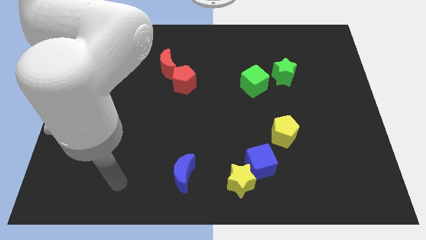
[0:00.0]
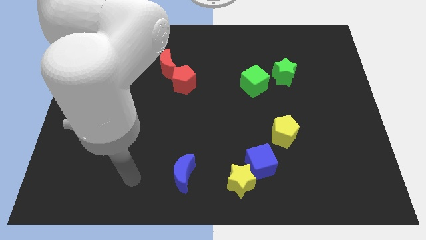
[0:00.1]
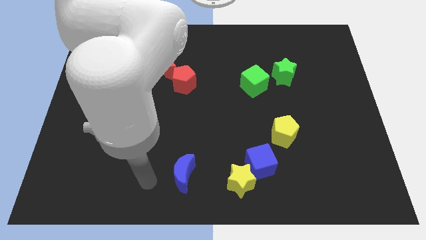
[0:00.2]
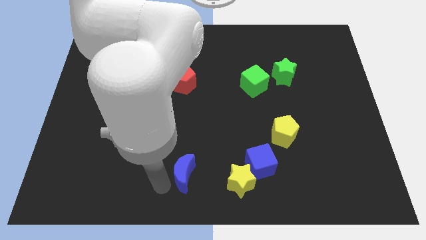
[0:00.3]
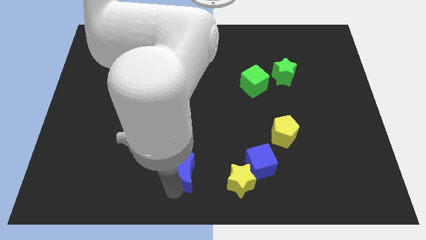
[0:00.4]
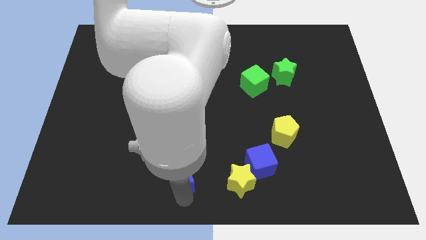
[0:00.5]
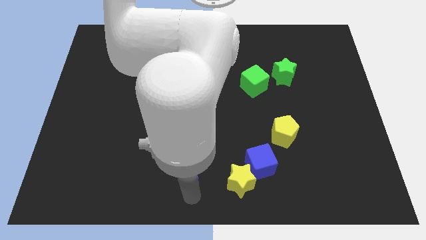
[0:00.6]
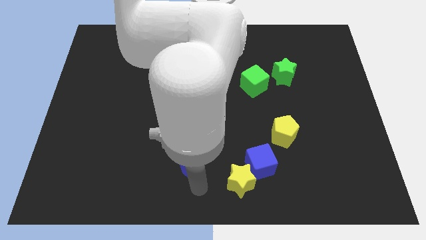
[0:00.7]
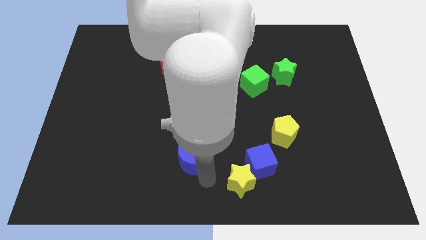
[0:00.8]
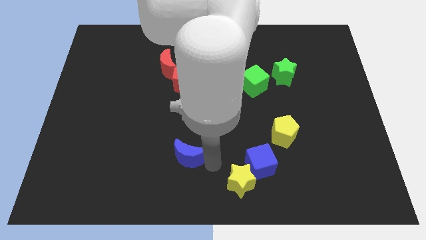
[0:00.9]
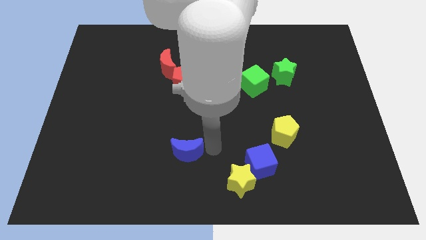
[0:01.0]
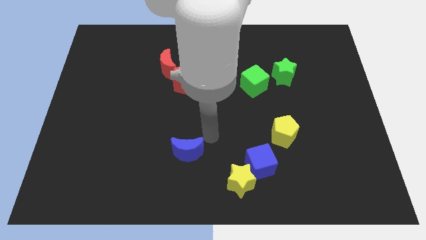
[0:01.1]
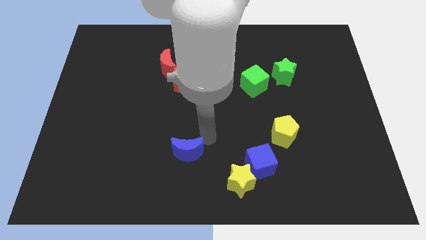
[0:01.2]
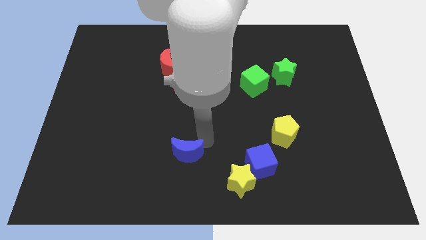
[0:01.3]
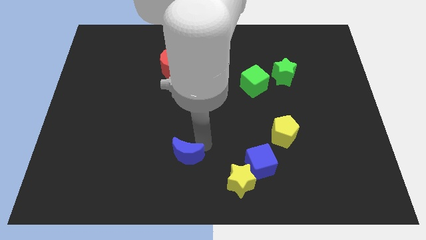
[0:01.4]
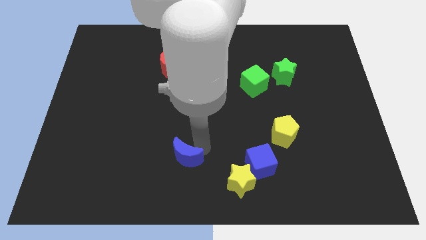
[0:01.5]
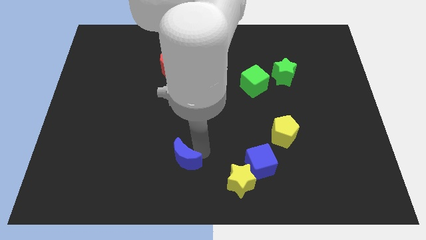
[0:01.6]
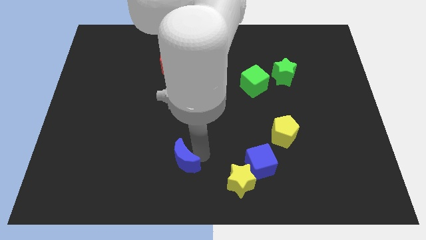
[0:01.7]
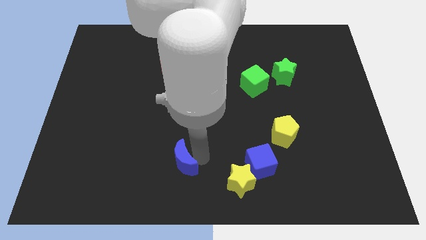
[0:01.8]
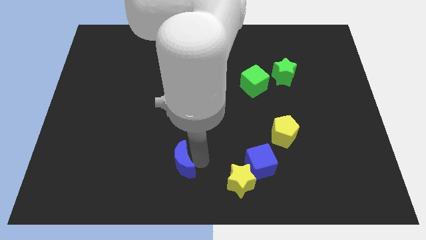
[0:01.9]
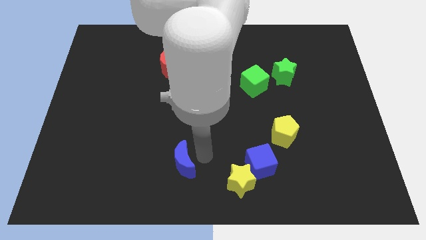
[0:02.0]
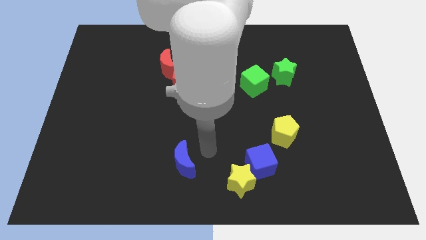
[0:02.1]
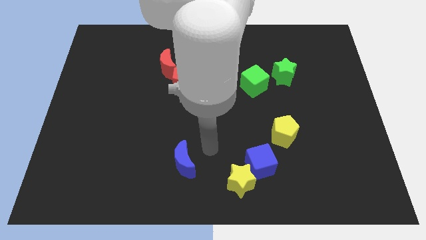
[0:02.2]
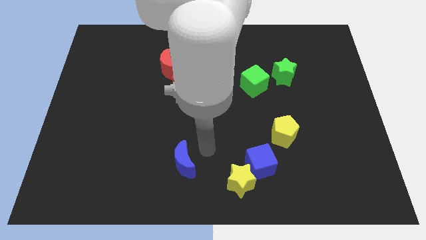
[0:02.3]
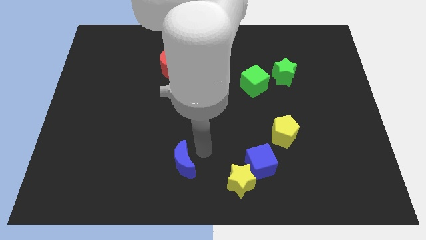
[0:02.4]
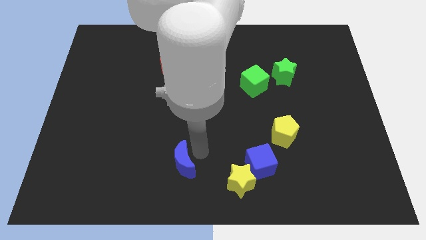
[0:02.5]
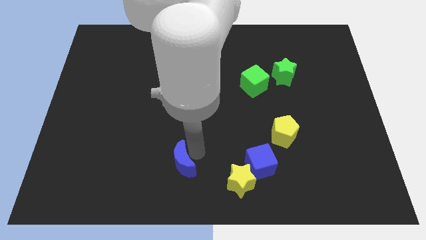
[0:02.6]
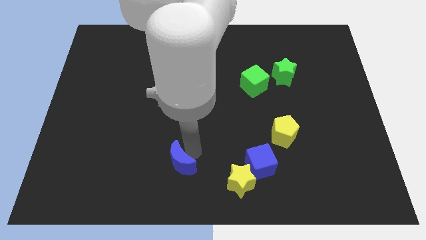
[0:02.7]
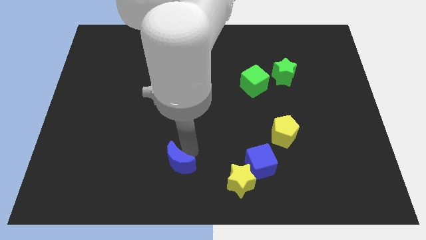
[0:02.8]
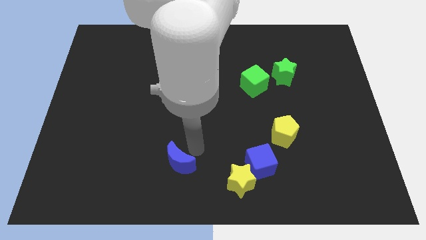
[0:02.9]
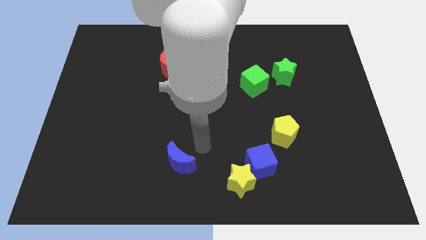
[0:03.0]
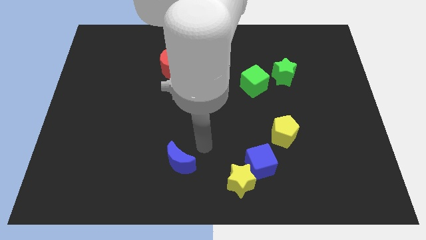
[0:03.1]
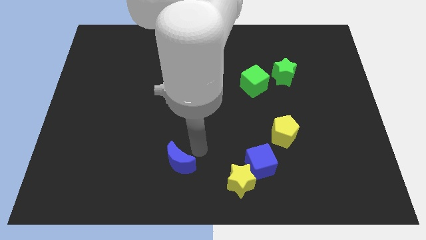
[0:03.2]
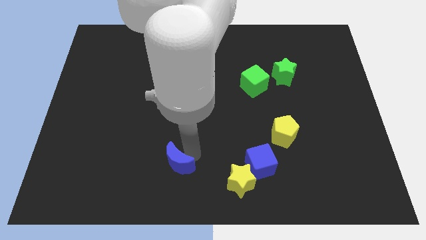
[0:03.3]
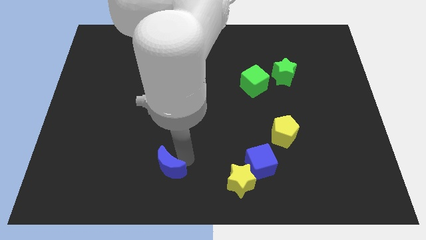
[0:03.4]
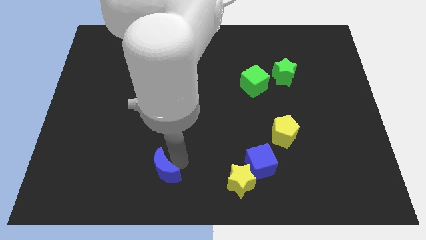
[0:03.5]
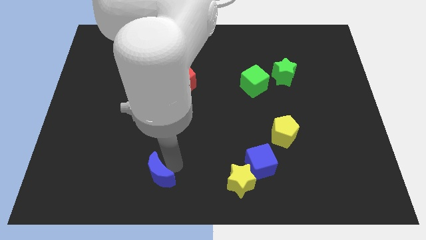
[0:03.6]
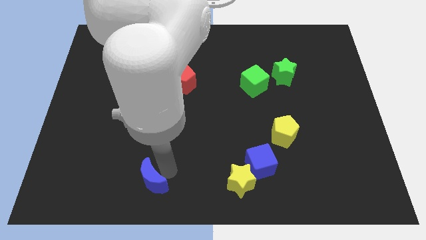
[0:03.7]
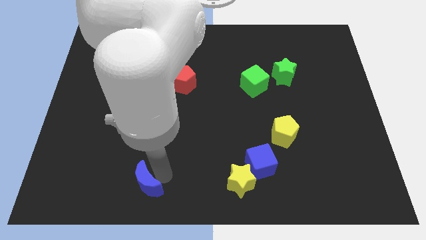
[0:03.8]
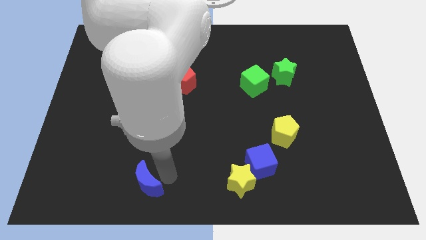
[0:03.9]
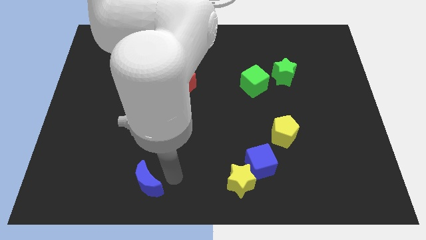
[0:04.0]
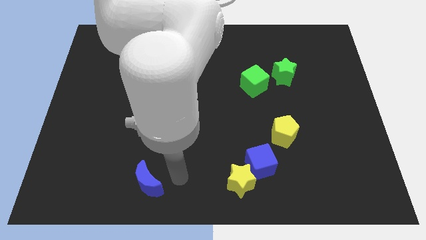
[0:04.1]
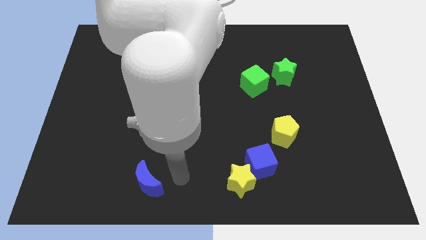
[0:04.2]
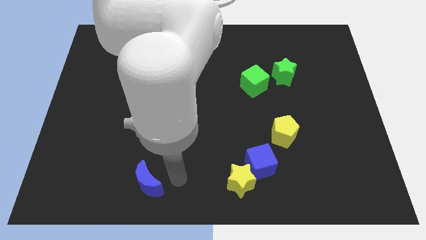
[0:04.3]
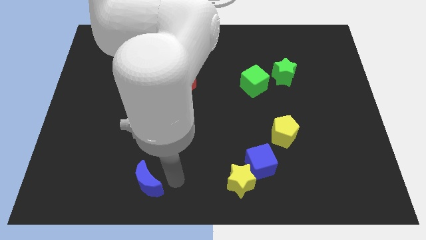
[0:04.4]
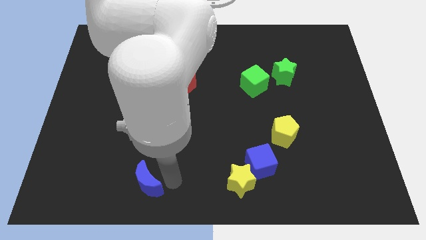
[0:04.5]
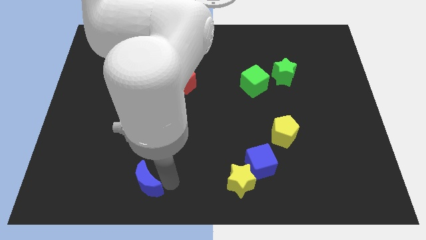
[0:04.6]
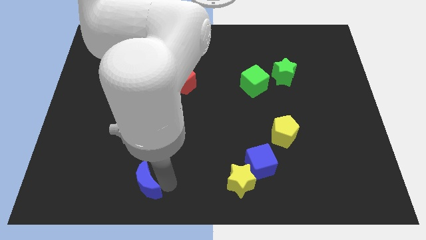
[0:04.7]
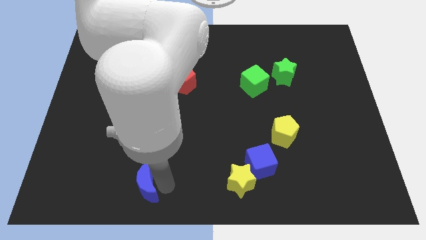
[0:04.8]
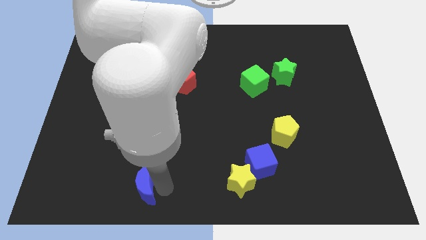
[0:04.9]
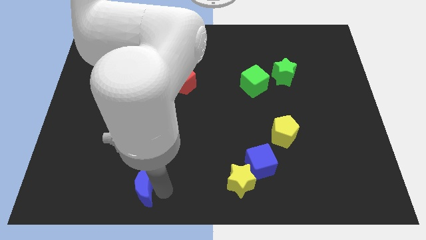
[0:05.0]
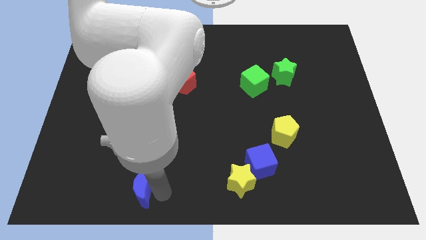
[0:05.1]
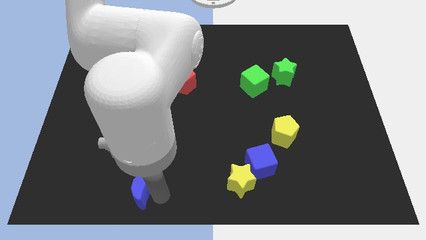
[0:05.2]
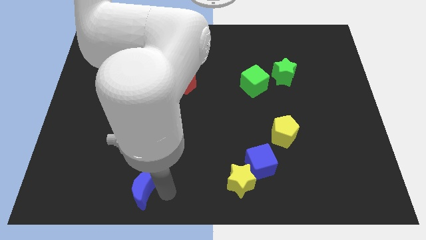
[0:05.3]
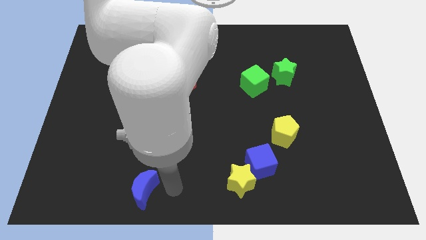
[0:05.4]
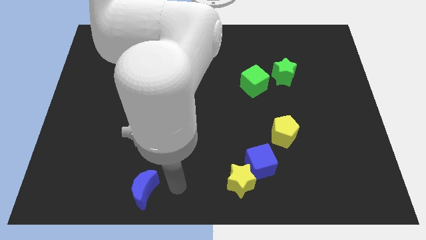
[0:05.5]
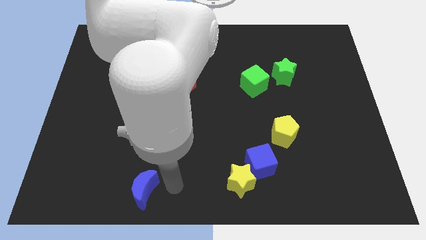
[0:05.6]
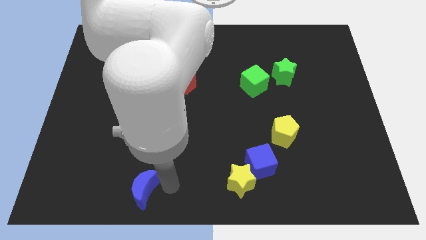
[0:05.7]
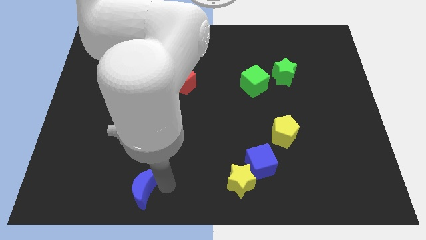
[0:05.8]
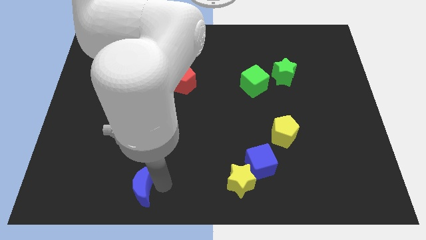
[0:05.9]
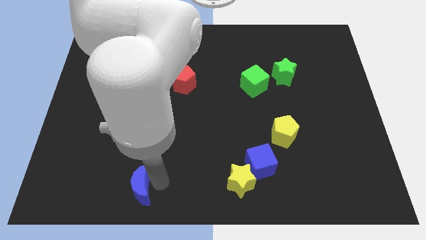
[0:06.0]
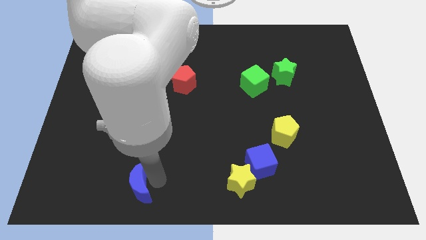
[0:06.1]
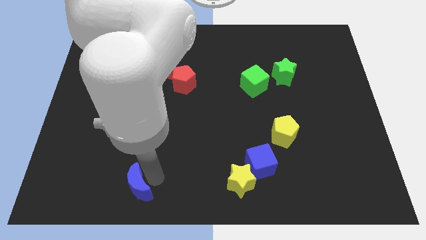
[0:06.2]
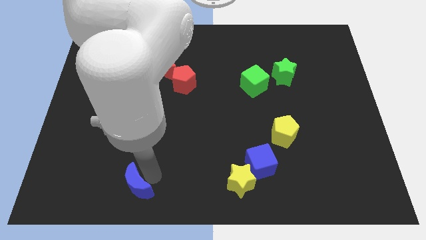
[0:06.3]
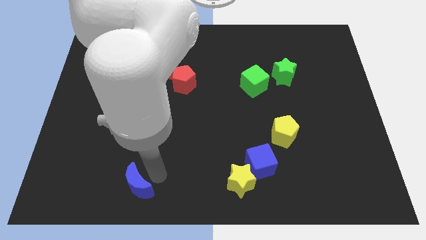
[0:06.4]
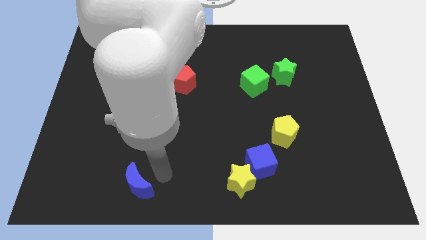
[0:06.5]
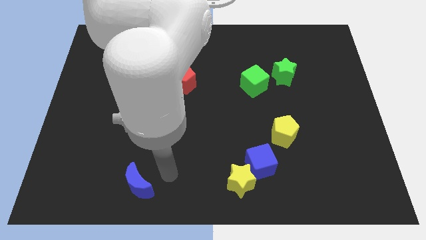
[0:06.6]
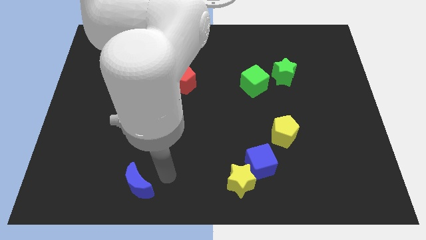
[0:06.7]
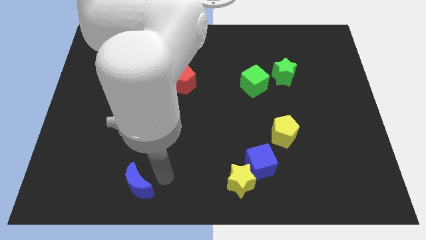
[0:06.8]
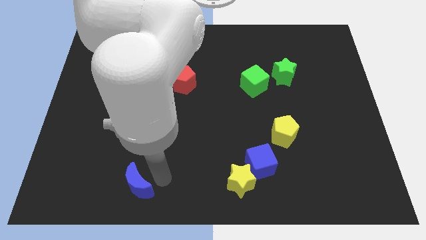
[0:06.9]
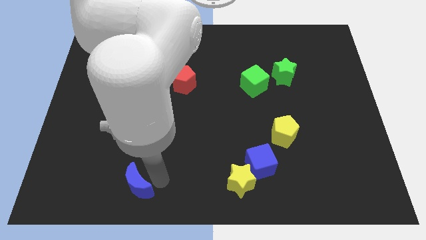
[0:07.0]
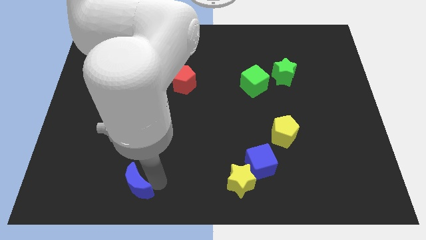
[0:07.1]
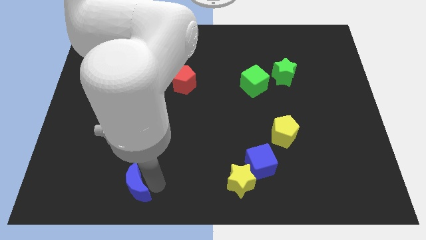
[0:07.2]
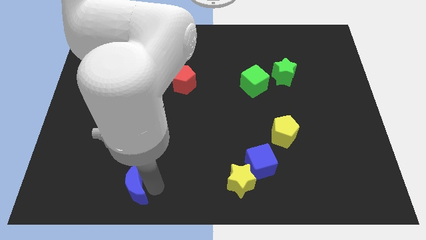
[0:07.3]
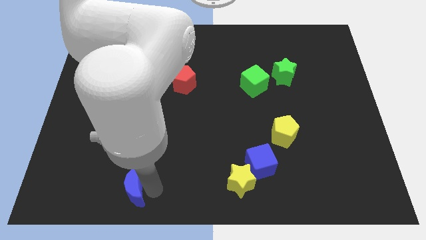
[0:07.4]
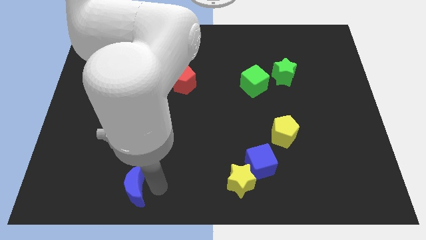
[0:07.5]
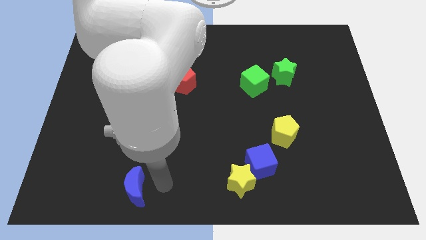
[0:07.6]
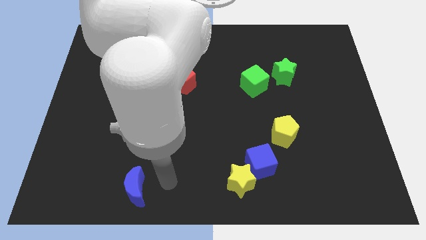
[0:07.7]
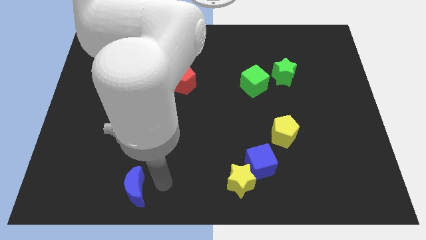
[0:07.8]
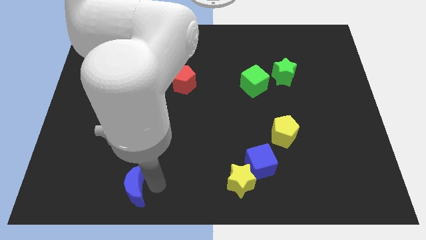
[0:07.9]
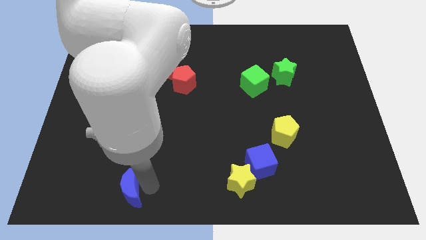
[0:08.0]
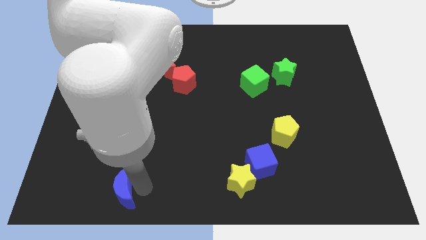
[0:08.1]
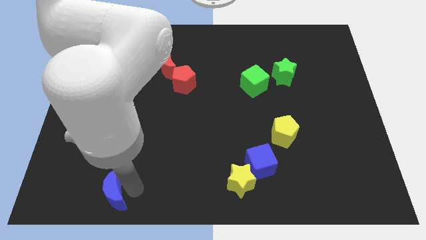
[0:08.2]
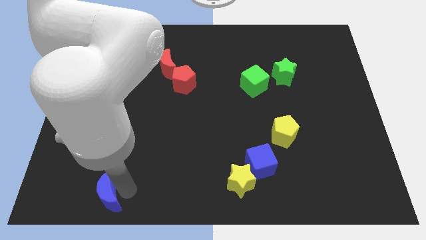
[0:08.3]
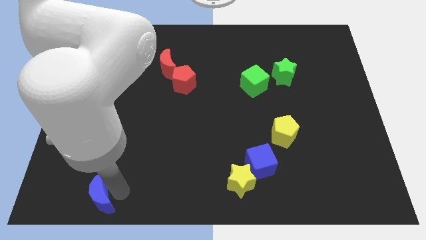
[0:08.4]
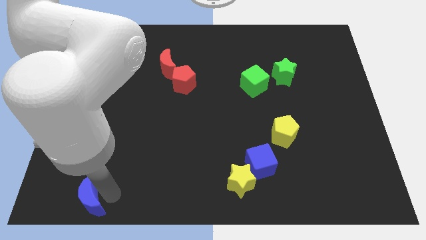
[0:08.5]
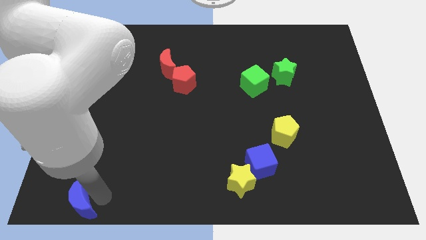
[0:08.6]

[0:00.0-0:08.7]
move the blue moon to the lower left corner
